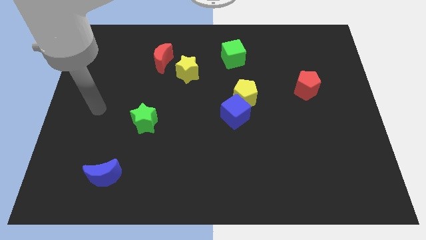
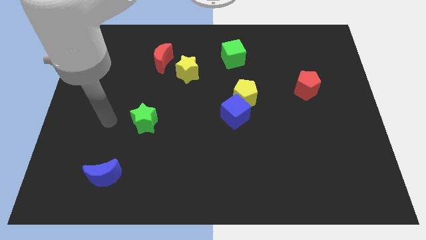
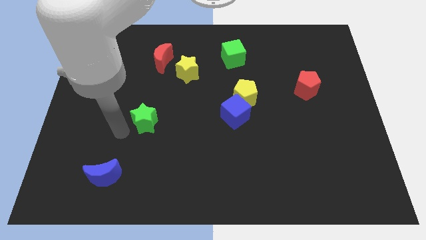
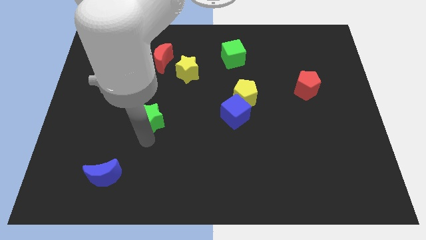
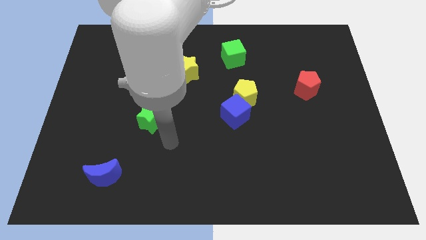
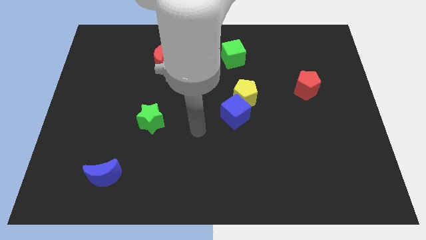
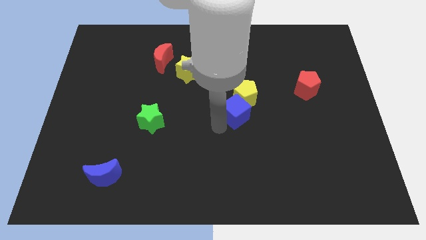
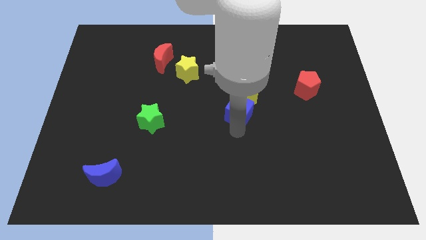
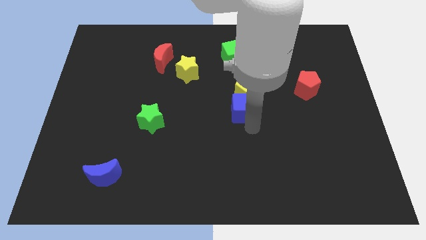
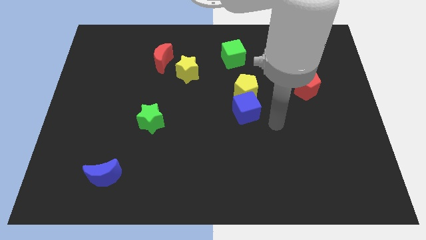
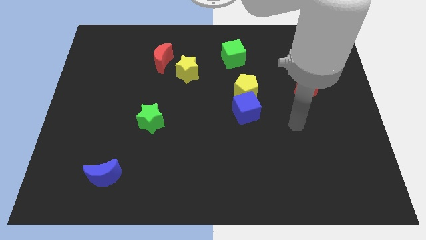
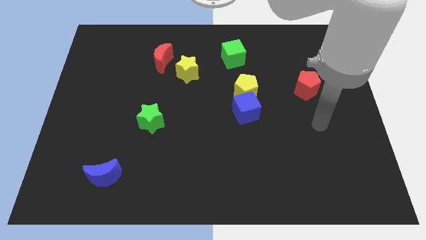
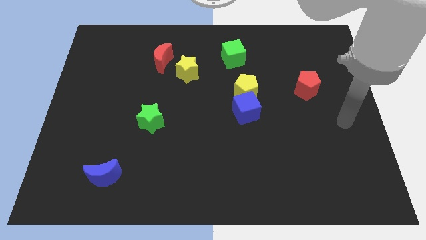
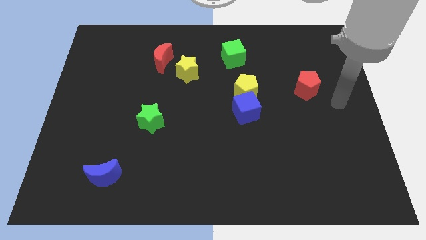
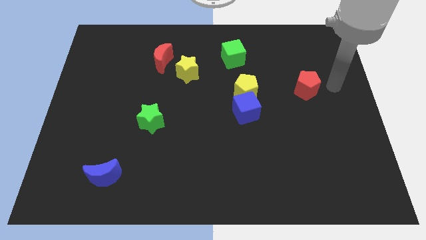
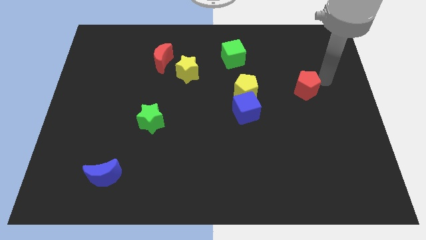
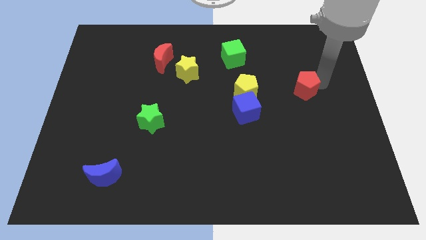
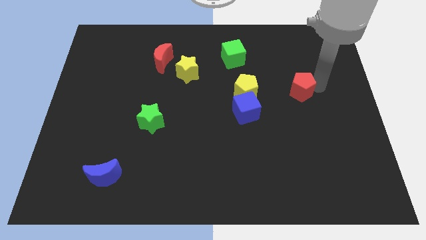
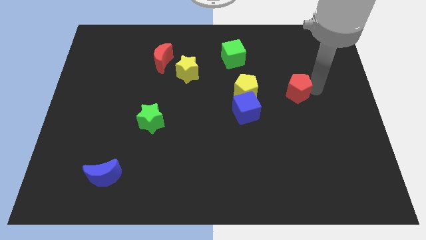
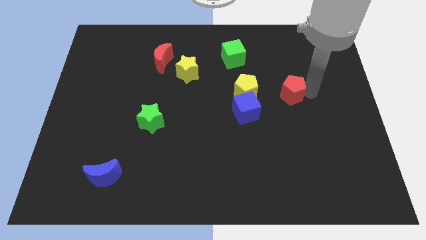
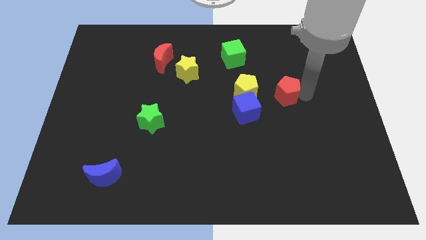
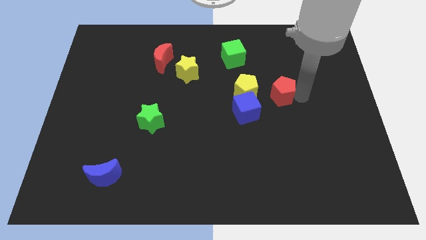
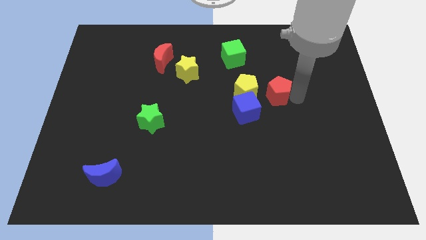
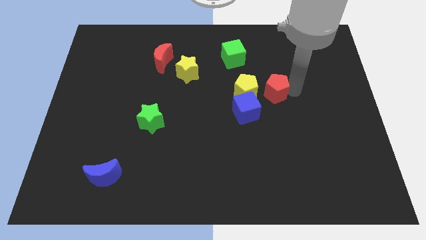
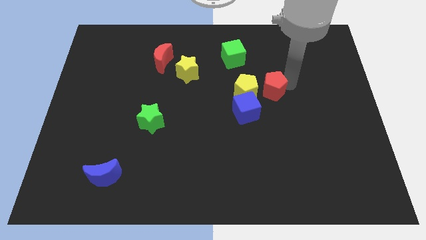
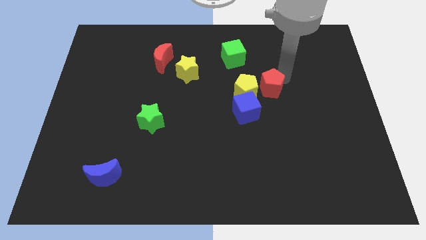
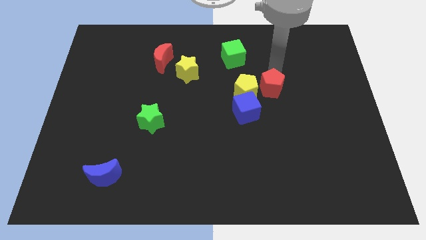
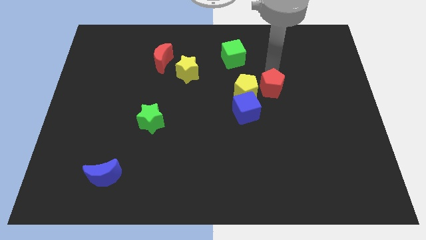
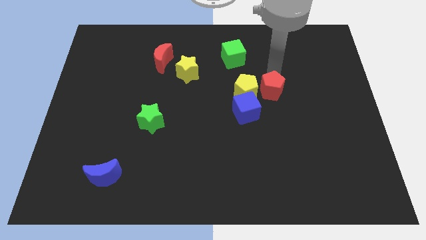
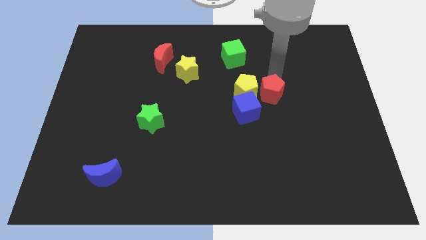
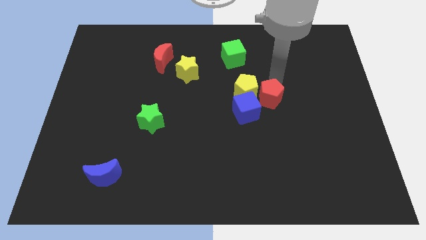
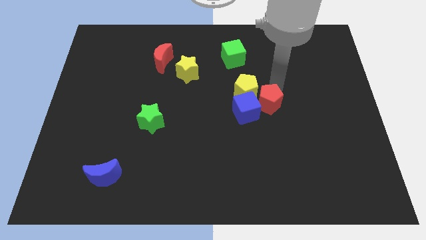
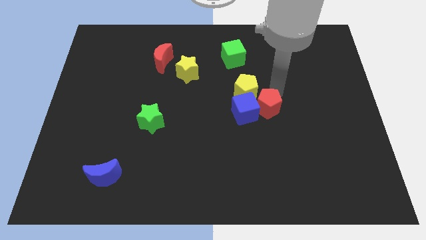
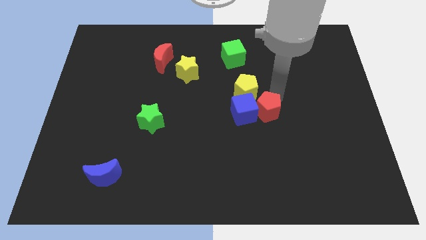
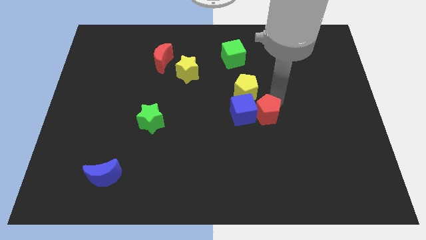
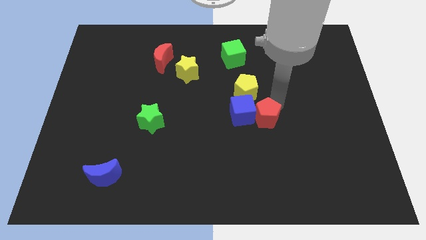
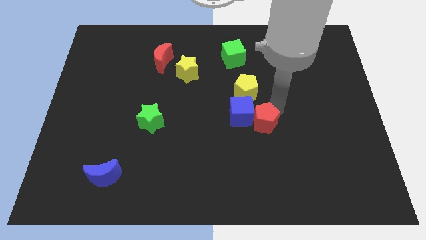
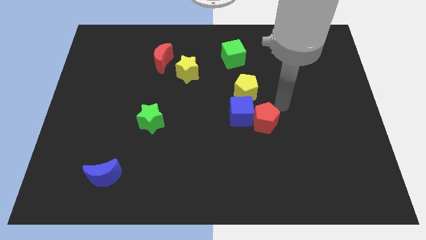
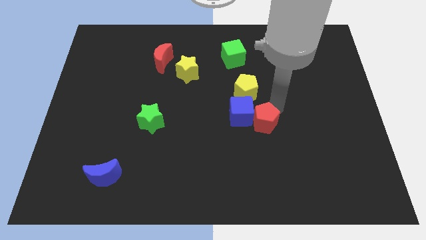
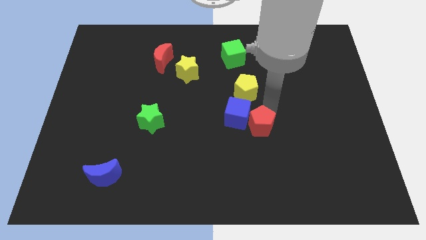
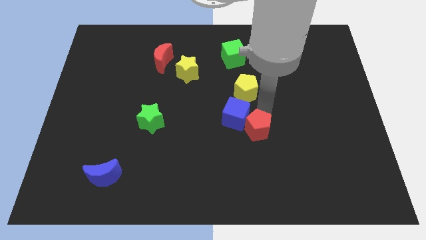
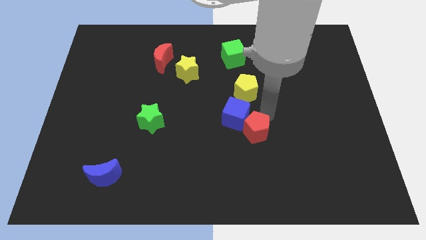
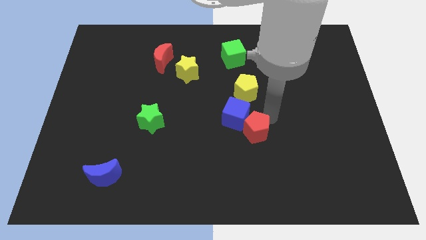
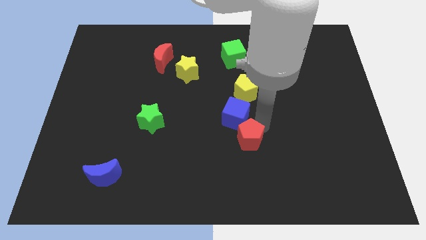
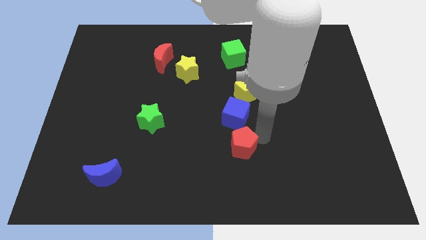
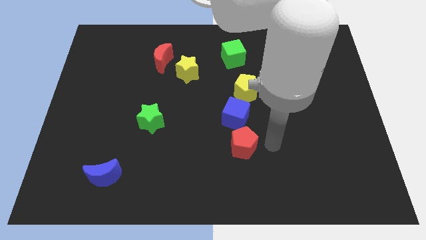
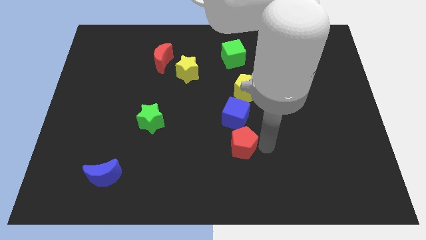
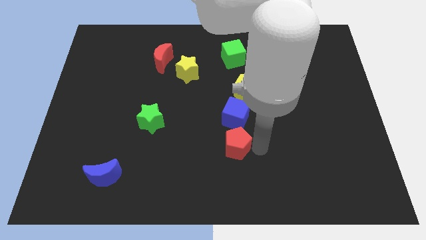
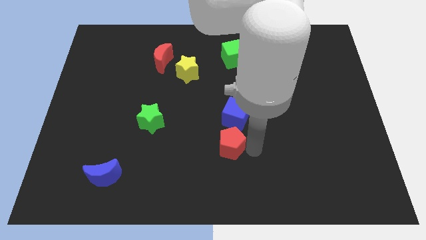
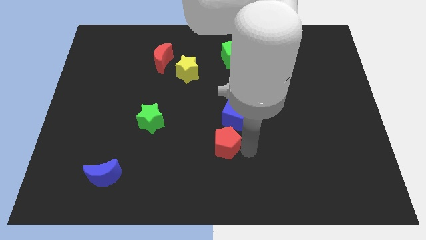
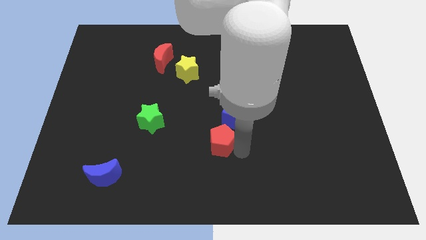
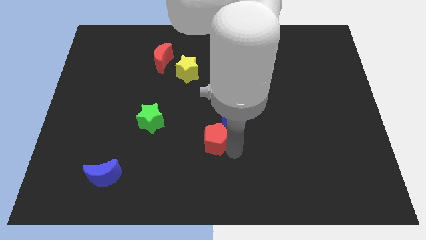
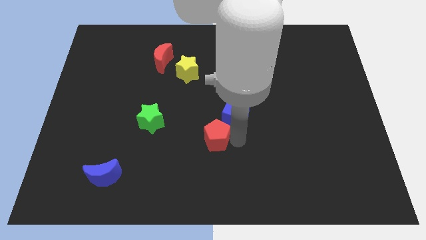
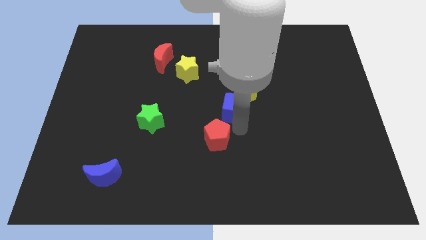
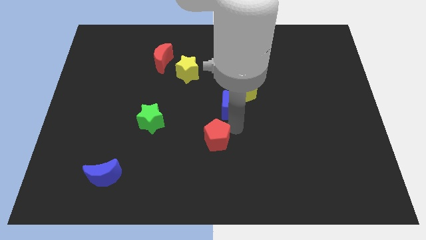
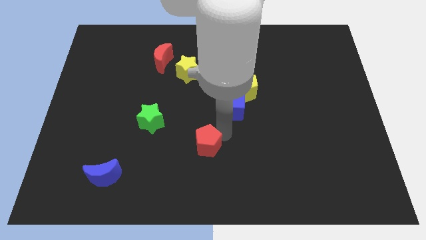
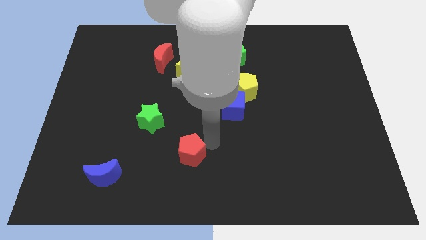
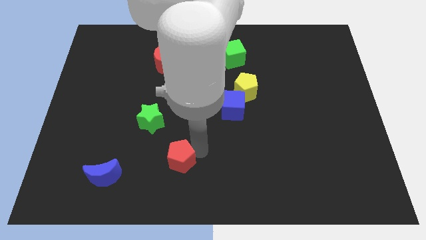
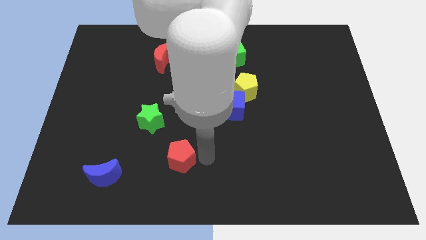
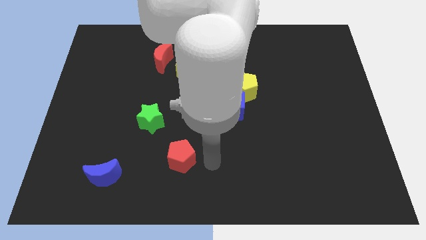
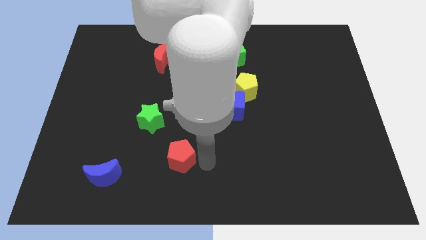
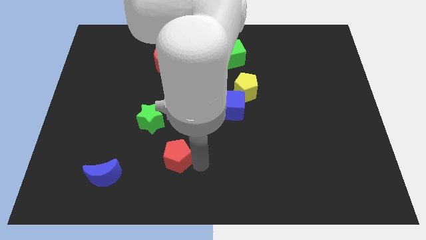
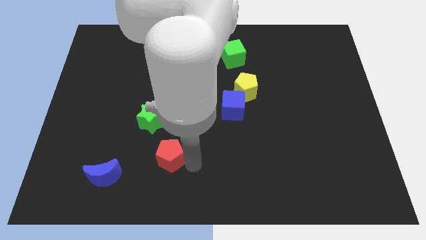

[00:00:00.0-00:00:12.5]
push the red pentagon to the bottom side of the green star
